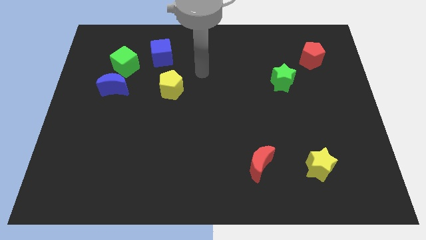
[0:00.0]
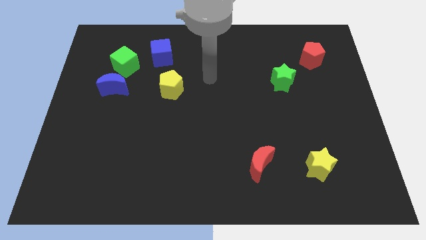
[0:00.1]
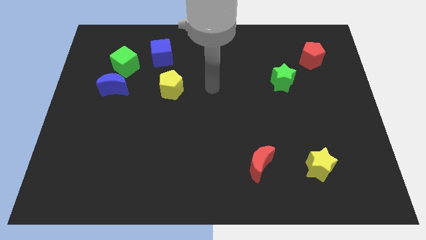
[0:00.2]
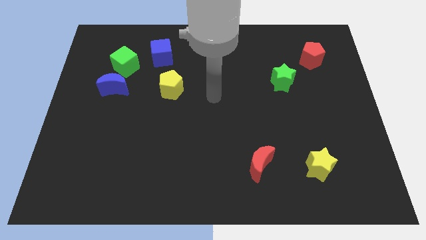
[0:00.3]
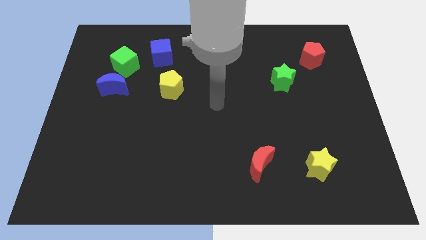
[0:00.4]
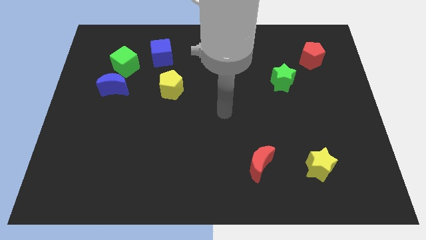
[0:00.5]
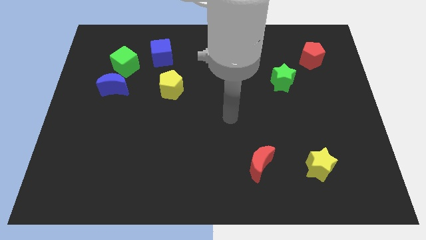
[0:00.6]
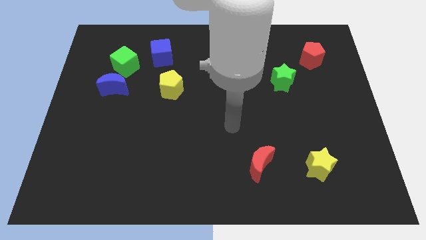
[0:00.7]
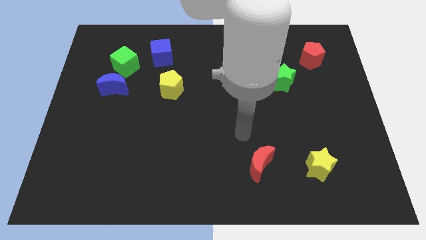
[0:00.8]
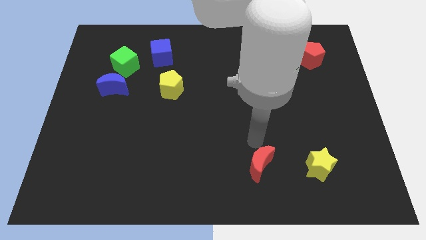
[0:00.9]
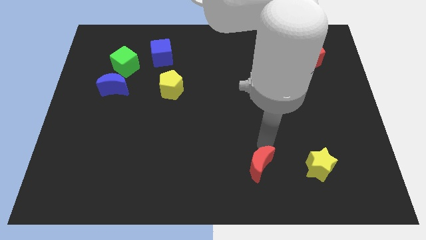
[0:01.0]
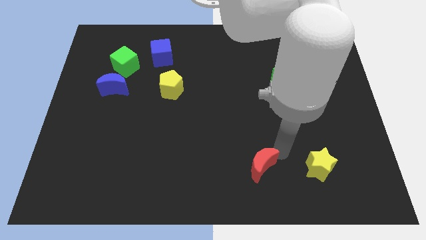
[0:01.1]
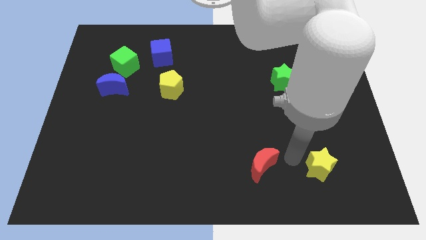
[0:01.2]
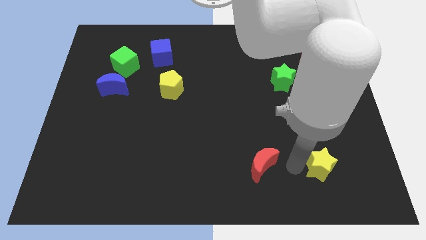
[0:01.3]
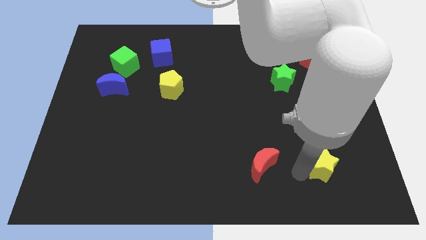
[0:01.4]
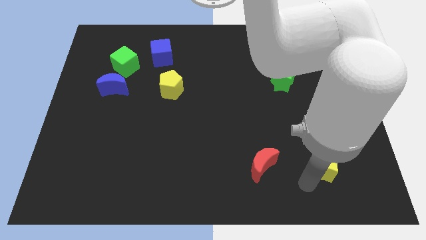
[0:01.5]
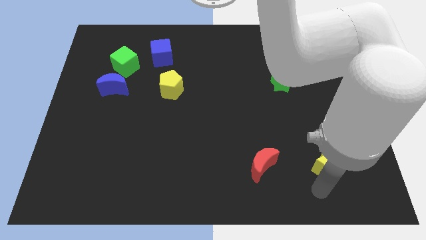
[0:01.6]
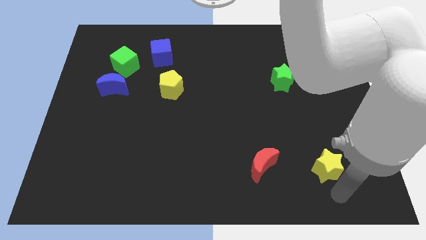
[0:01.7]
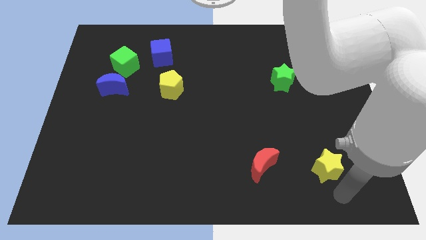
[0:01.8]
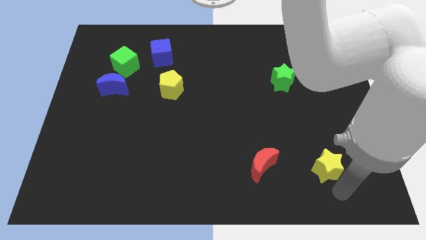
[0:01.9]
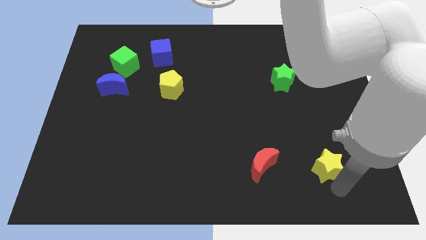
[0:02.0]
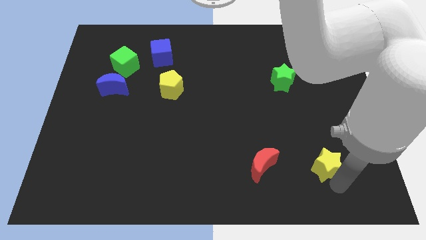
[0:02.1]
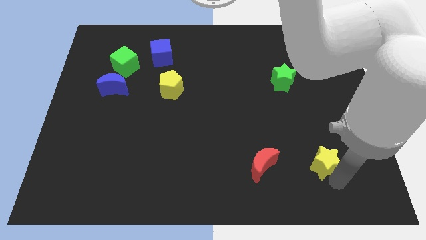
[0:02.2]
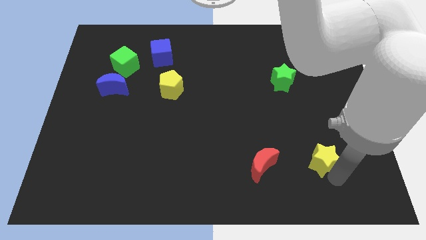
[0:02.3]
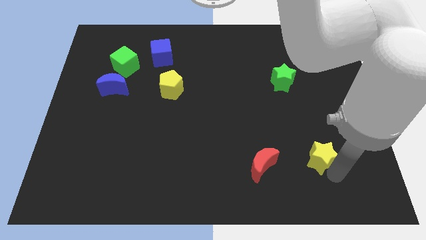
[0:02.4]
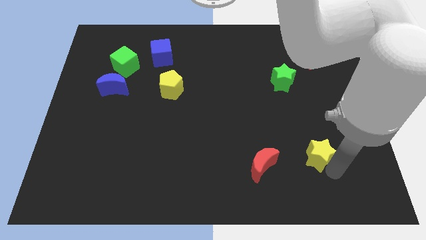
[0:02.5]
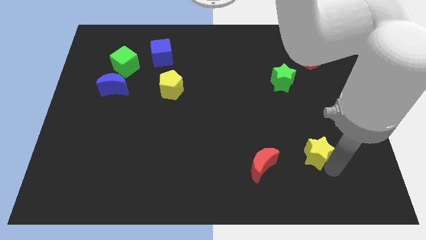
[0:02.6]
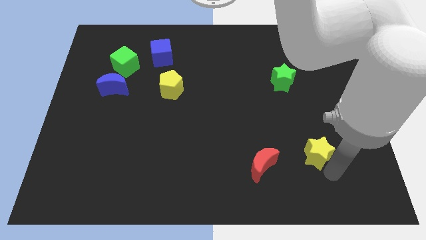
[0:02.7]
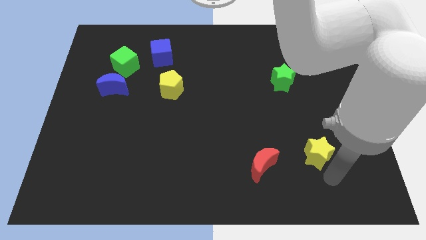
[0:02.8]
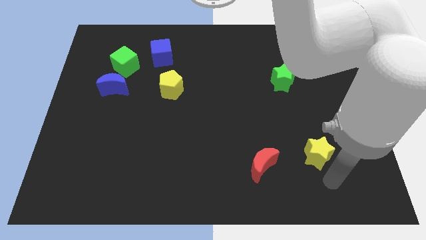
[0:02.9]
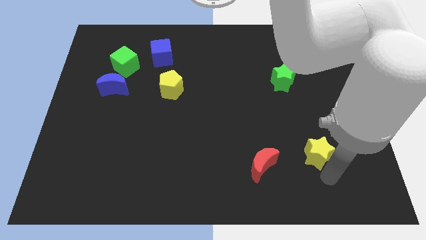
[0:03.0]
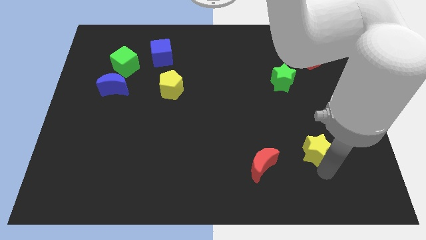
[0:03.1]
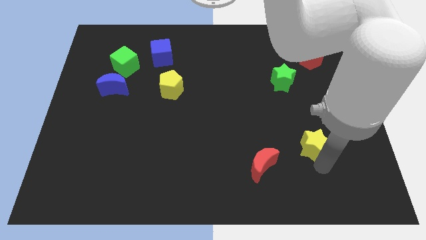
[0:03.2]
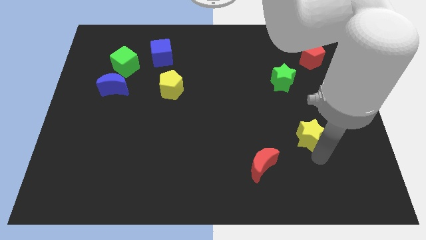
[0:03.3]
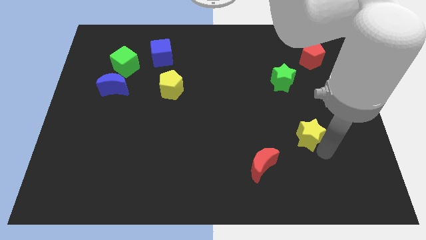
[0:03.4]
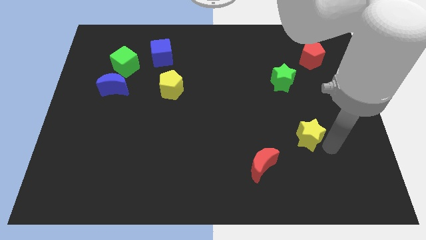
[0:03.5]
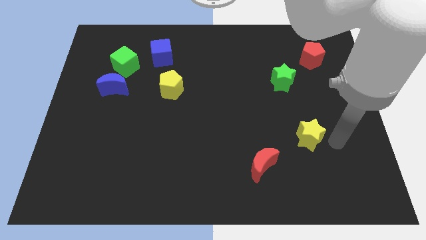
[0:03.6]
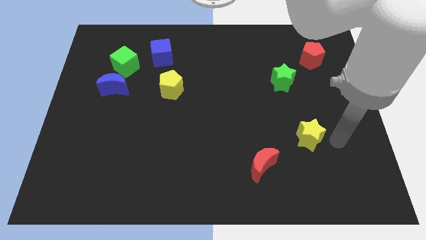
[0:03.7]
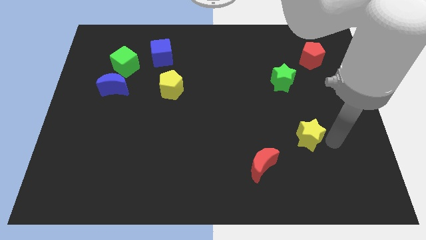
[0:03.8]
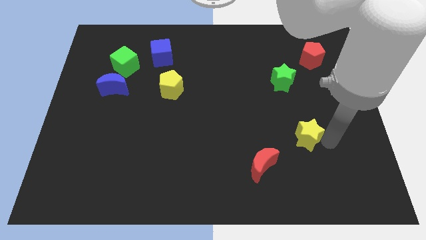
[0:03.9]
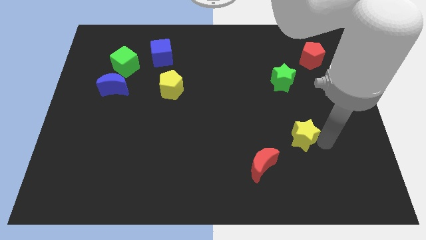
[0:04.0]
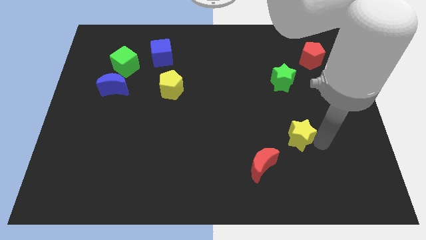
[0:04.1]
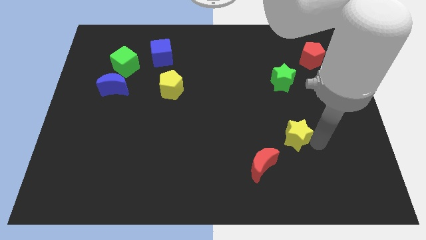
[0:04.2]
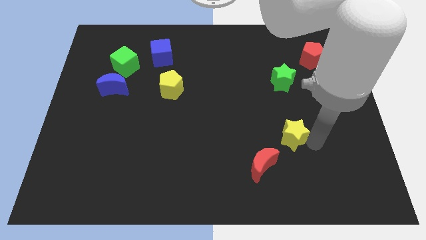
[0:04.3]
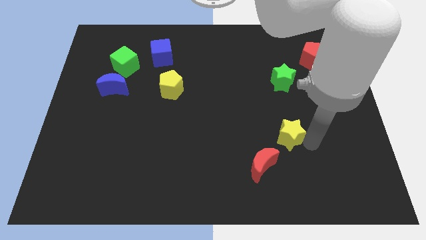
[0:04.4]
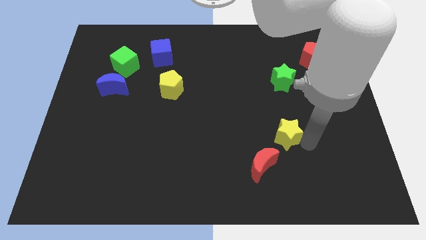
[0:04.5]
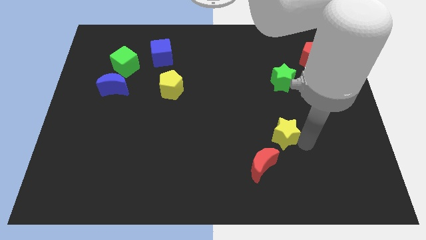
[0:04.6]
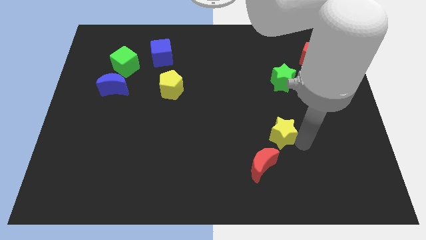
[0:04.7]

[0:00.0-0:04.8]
slide the yellow star to the top side of the red moon

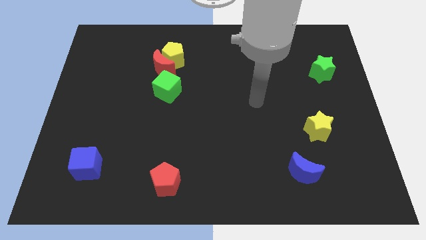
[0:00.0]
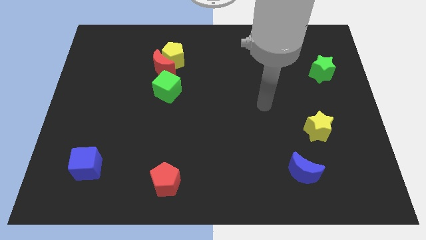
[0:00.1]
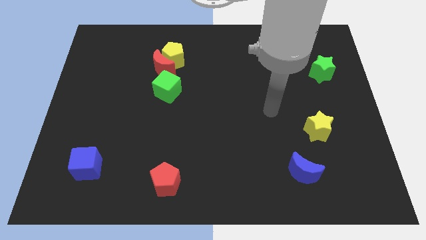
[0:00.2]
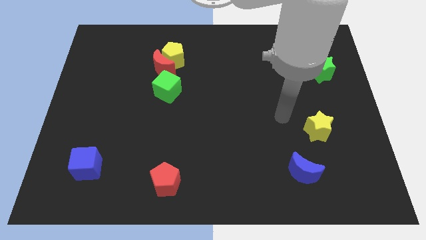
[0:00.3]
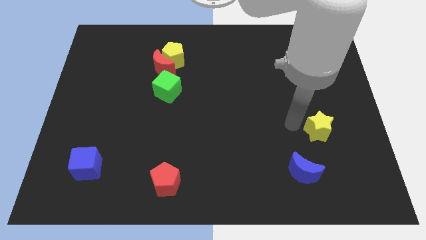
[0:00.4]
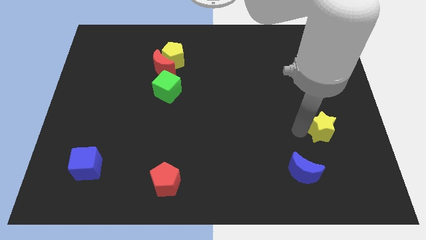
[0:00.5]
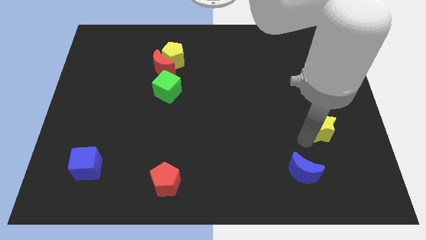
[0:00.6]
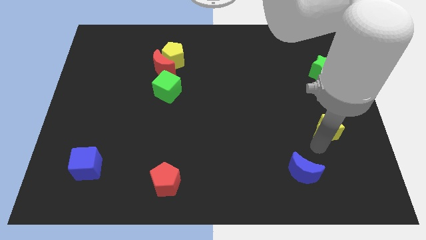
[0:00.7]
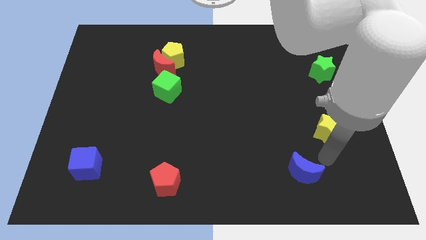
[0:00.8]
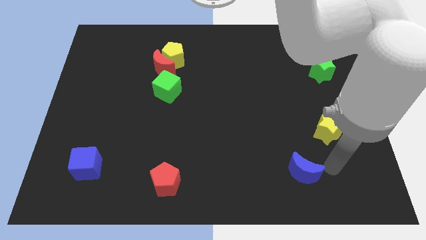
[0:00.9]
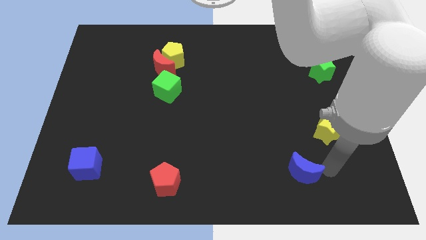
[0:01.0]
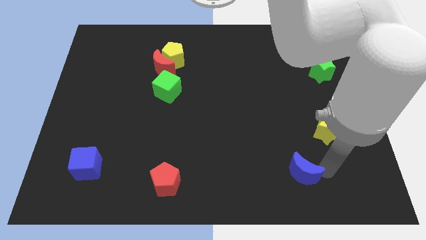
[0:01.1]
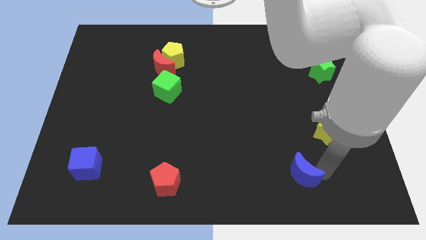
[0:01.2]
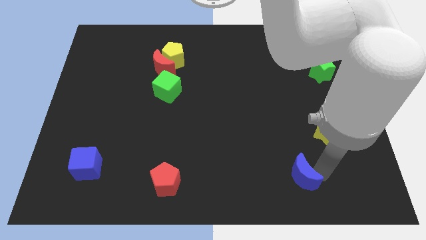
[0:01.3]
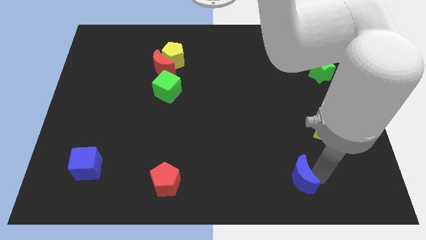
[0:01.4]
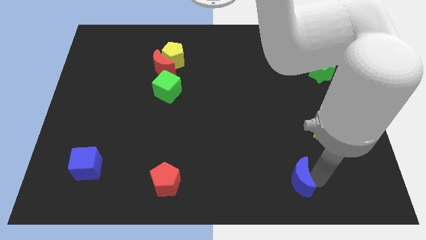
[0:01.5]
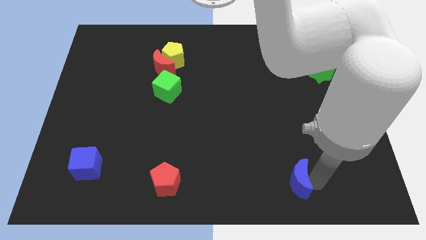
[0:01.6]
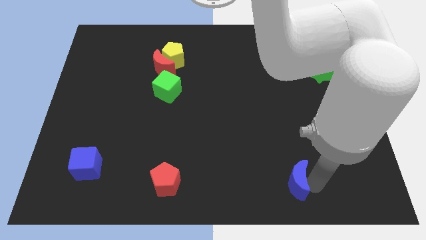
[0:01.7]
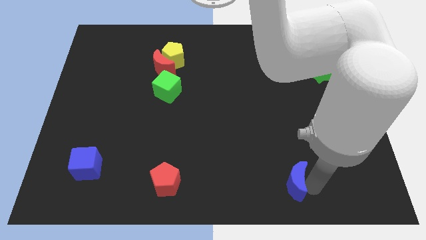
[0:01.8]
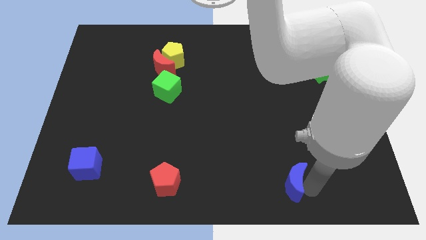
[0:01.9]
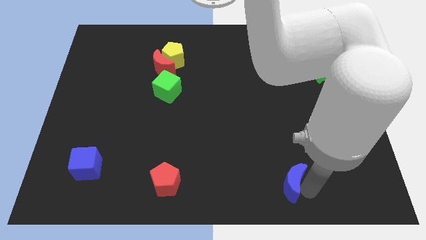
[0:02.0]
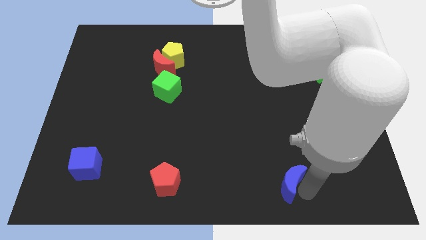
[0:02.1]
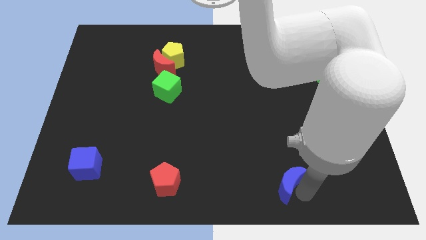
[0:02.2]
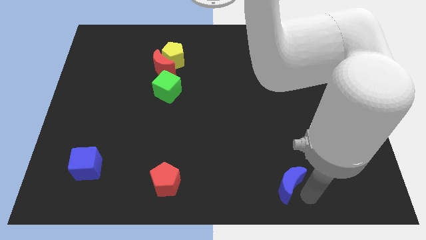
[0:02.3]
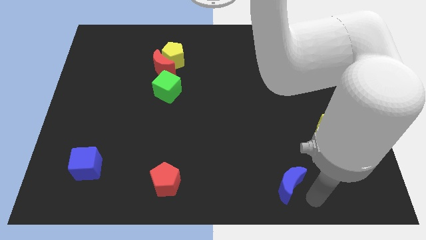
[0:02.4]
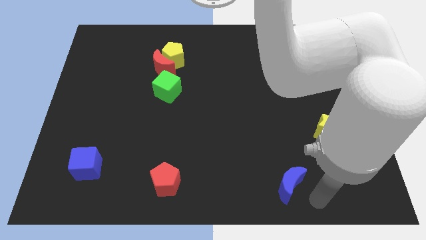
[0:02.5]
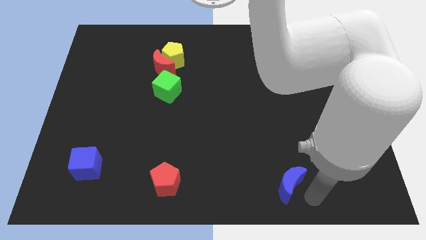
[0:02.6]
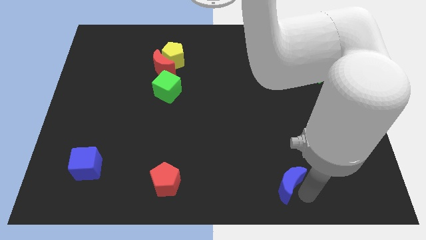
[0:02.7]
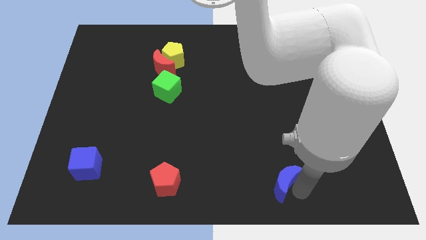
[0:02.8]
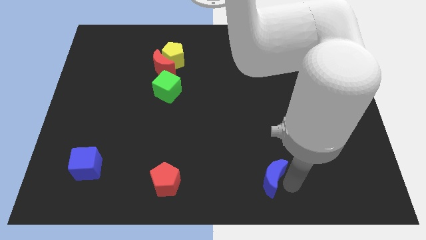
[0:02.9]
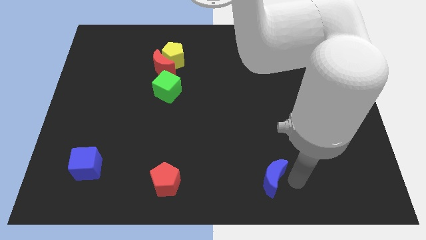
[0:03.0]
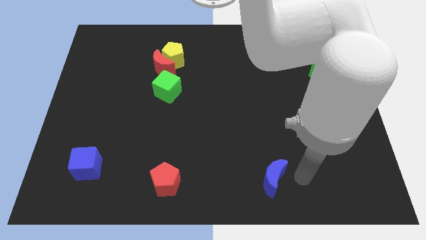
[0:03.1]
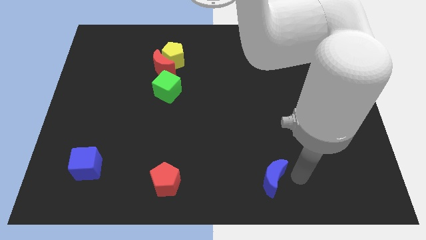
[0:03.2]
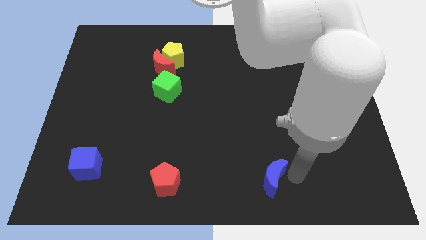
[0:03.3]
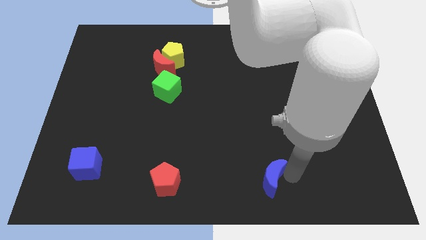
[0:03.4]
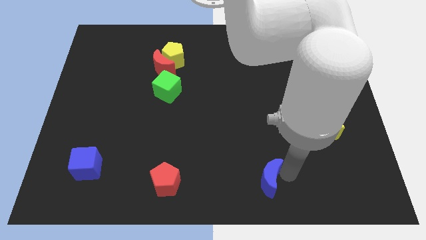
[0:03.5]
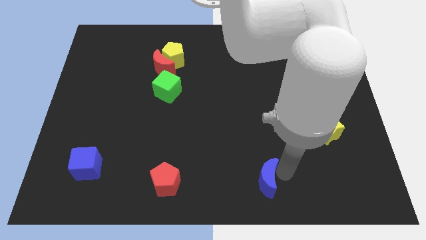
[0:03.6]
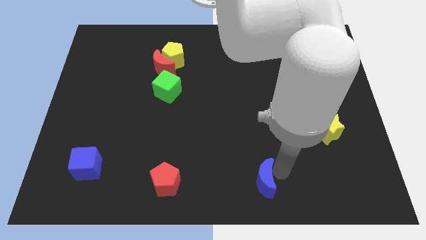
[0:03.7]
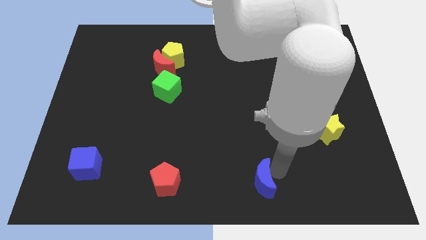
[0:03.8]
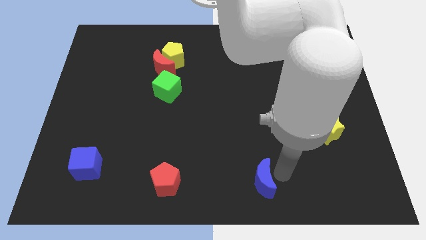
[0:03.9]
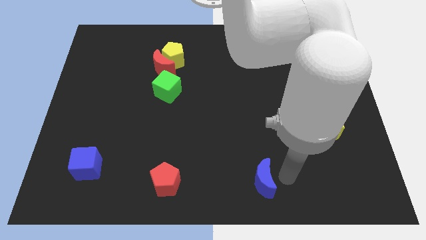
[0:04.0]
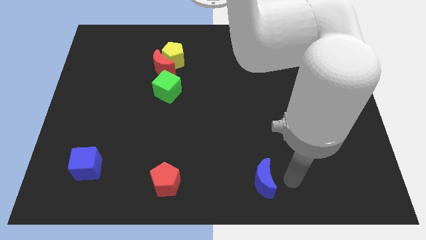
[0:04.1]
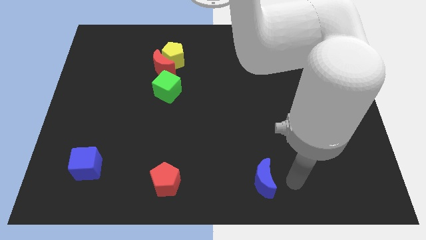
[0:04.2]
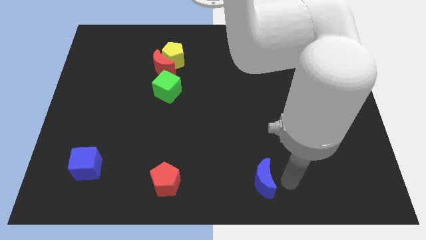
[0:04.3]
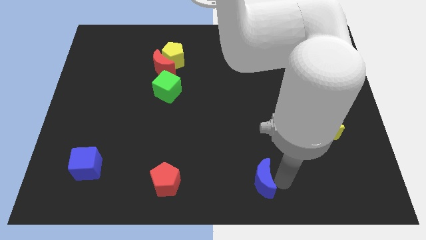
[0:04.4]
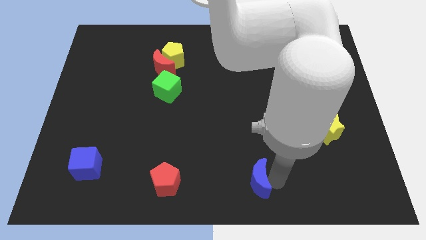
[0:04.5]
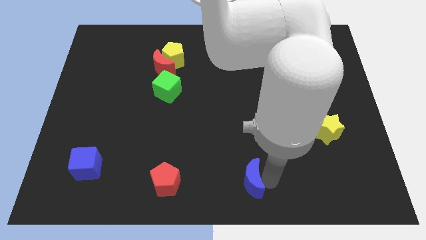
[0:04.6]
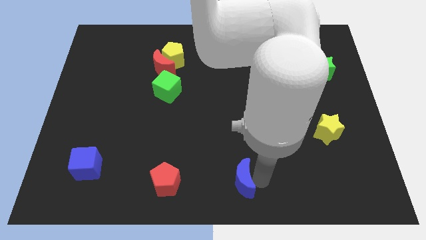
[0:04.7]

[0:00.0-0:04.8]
move the blue moon right of the red pentagon
